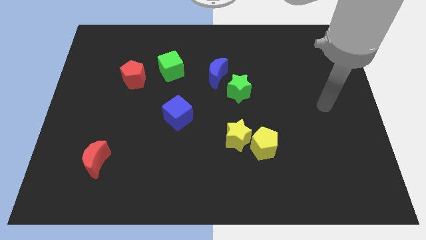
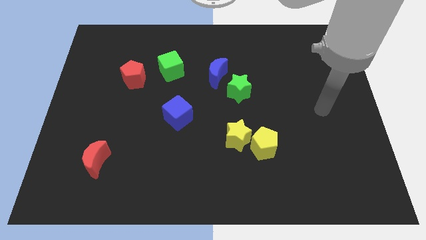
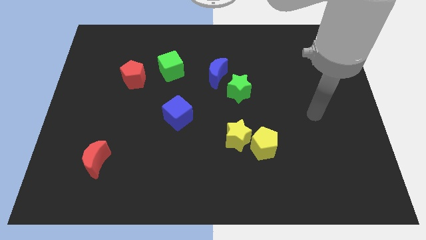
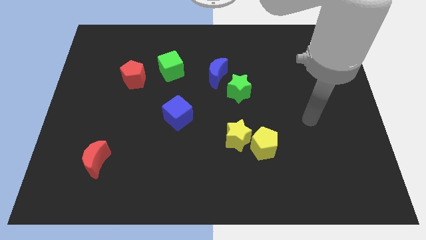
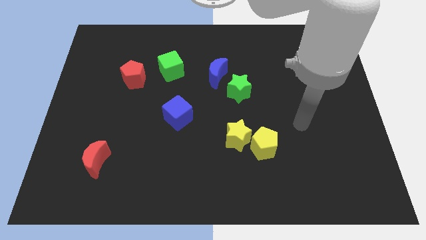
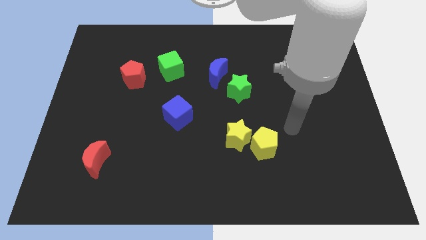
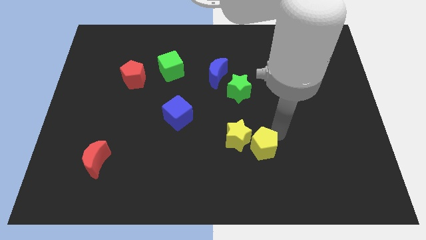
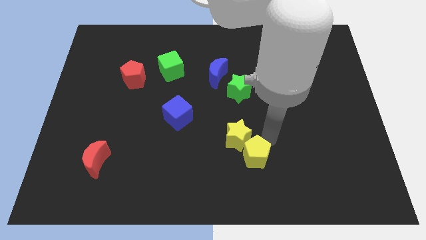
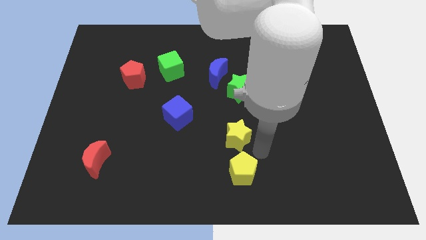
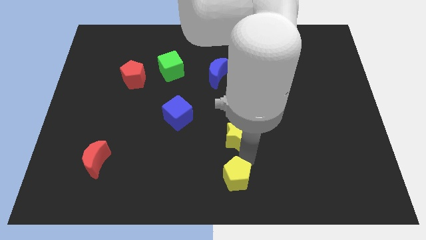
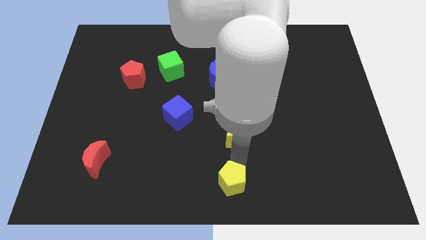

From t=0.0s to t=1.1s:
move the yellow star away from the yellow pentagon

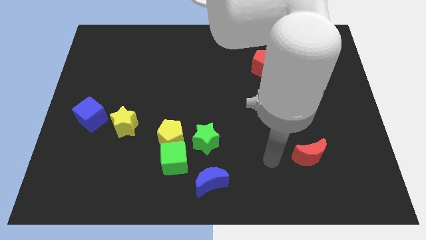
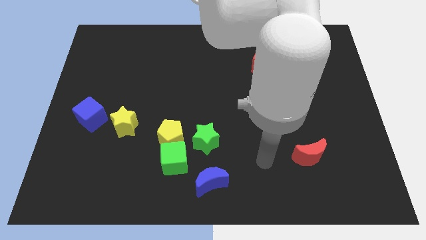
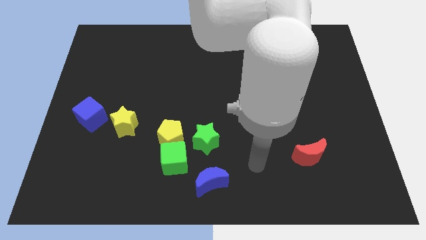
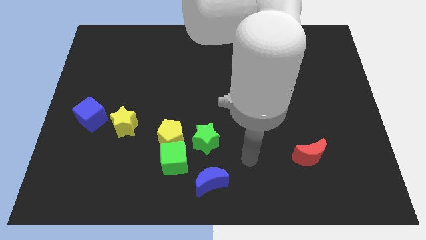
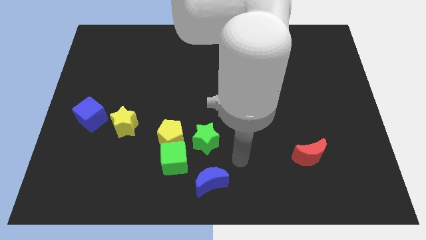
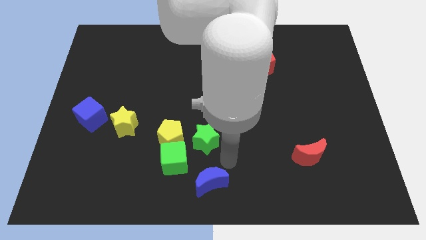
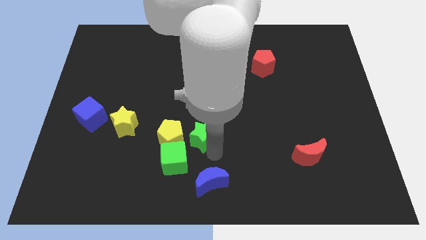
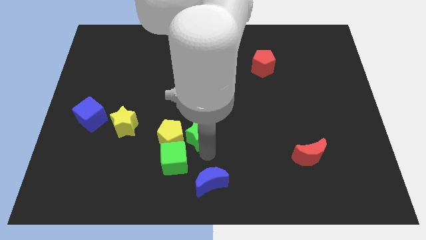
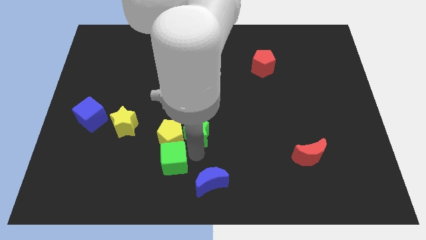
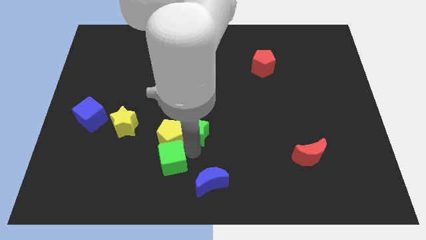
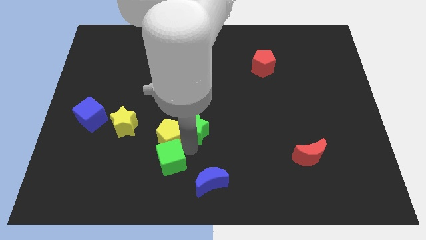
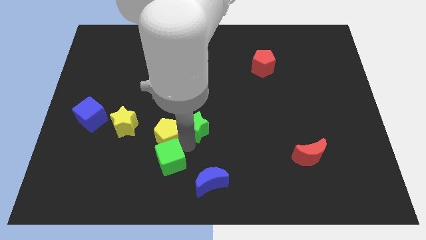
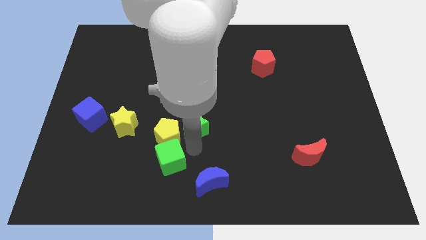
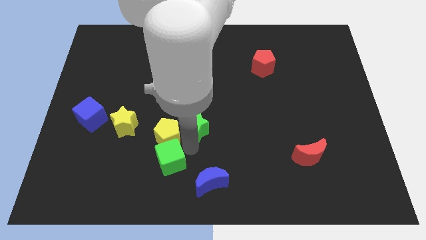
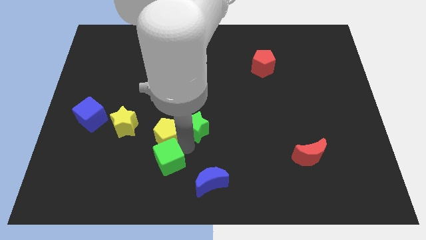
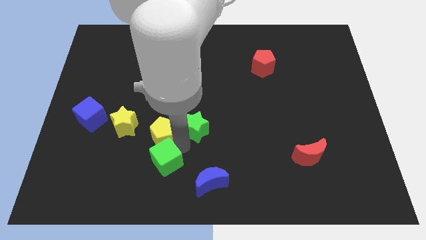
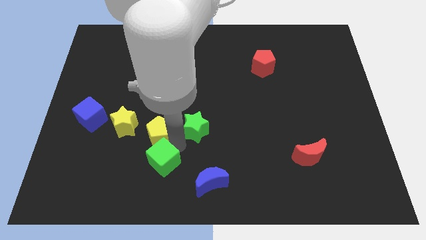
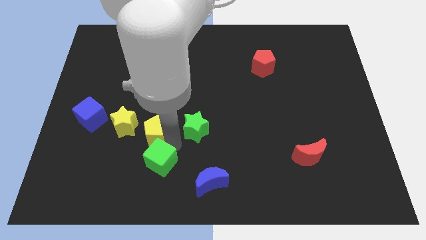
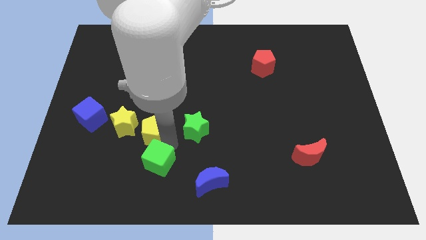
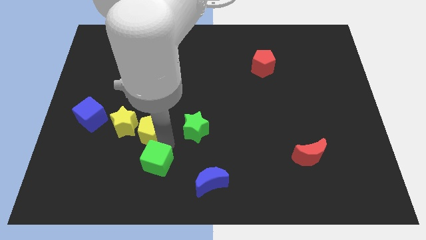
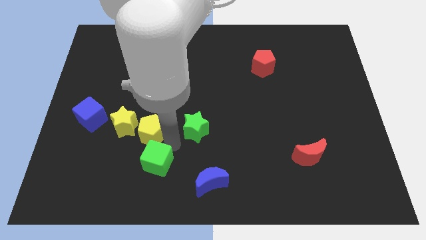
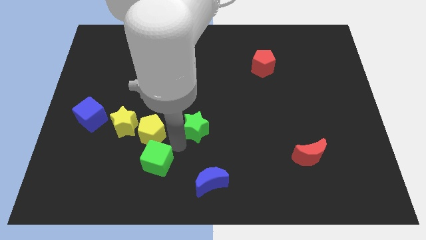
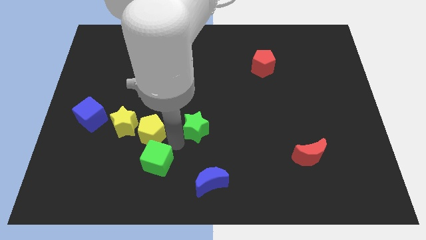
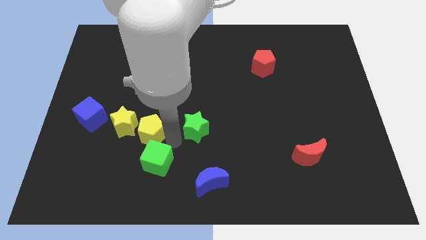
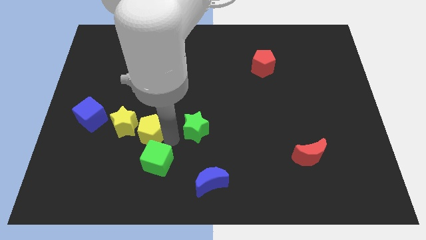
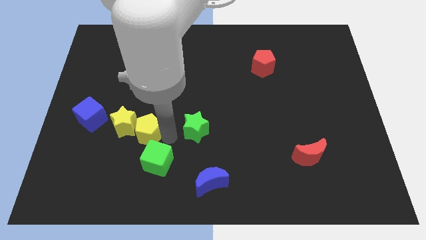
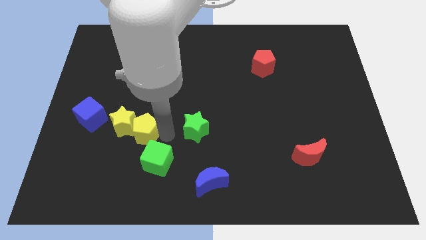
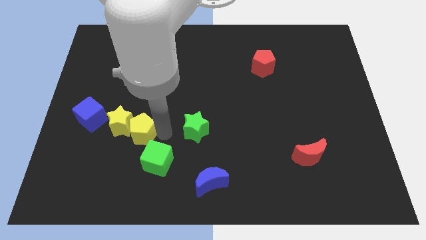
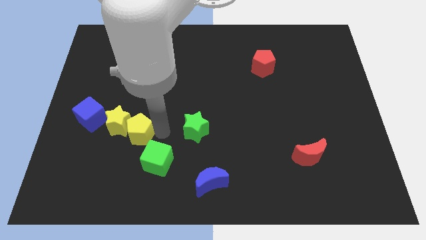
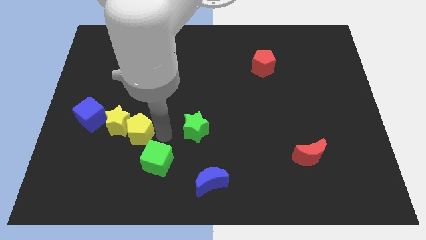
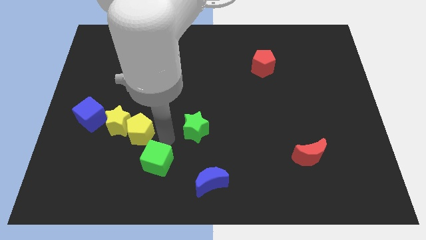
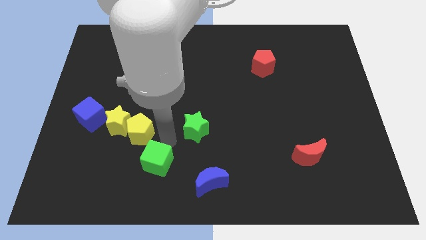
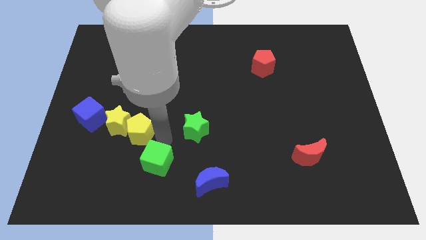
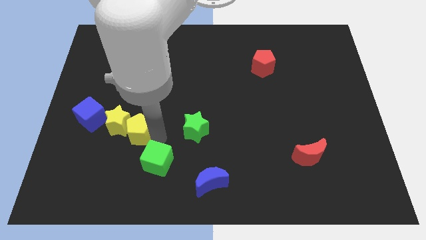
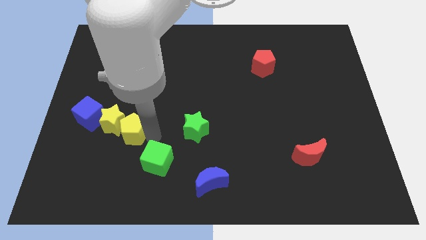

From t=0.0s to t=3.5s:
separate the yellow pentagon from the green cube and green star

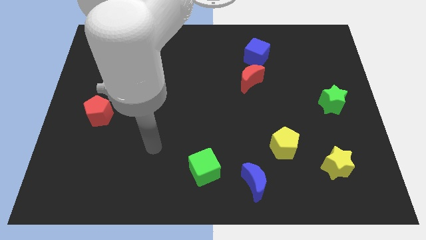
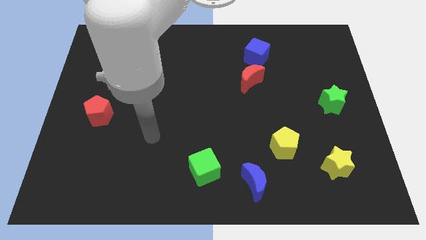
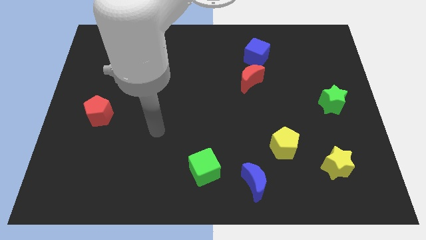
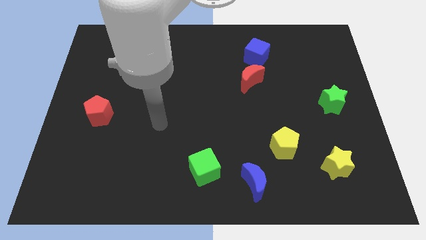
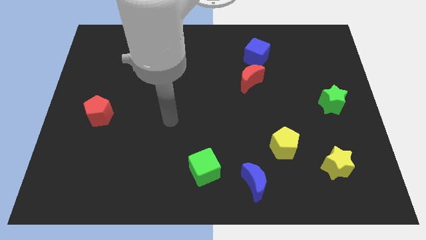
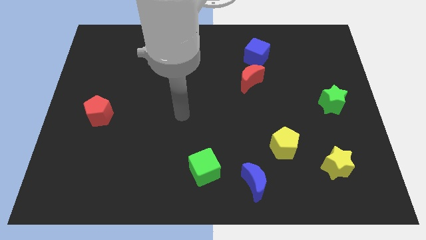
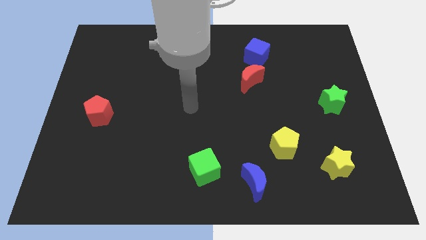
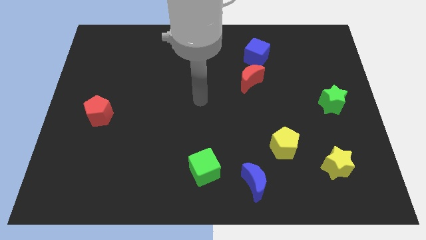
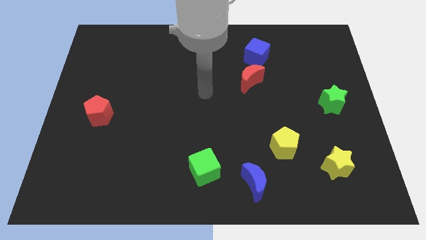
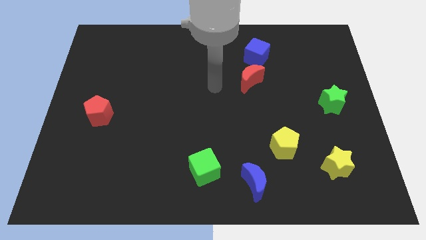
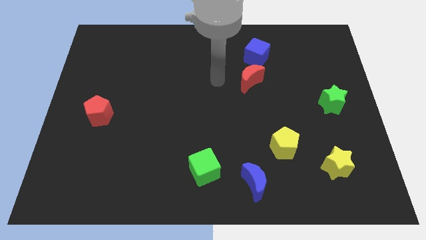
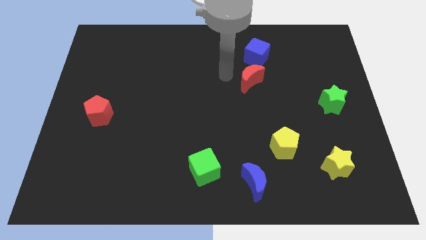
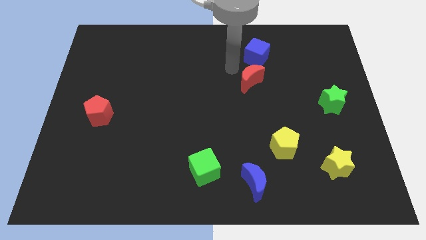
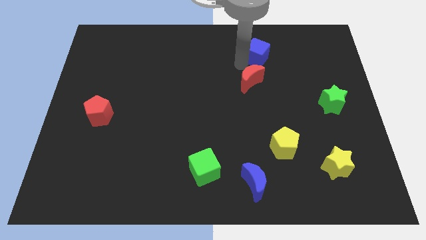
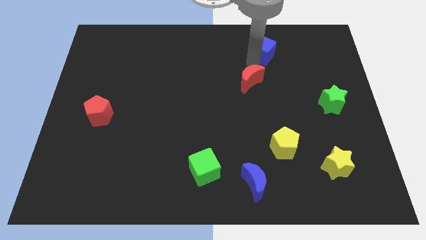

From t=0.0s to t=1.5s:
move the red moon away from the blue cube

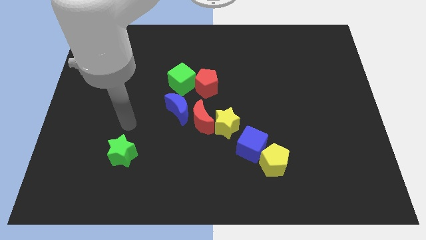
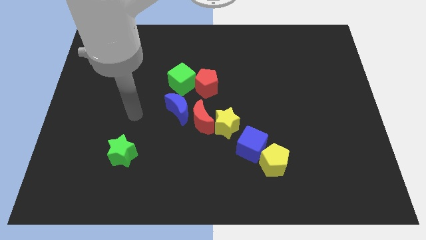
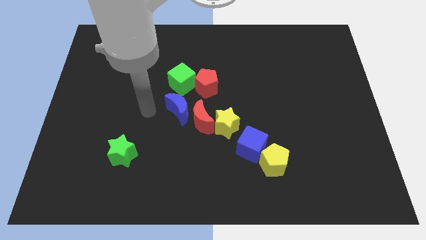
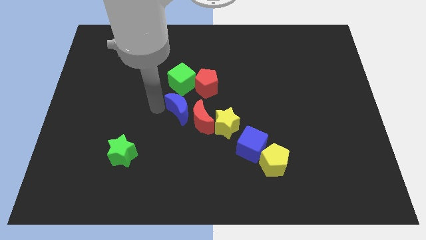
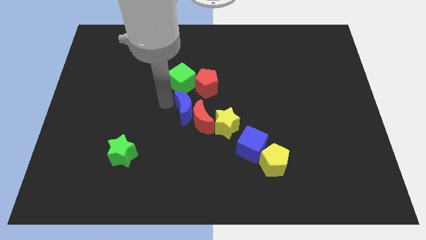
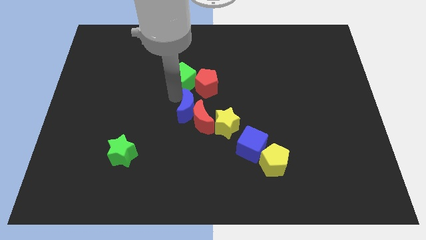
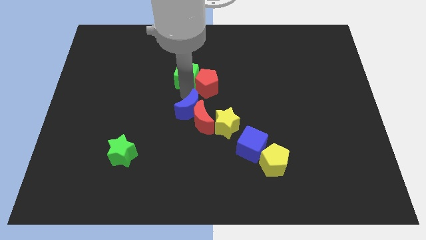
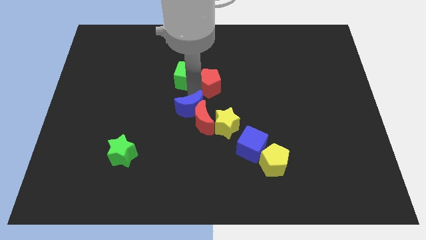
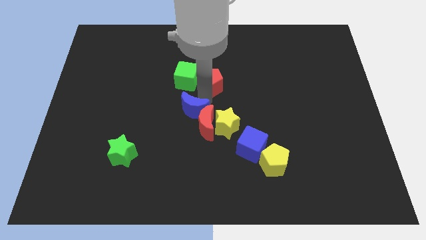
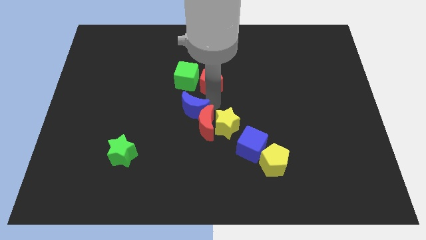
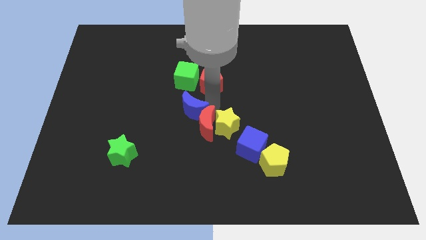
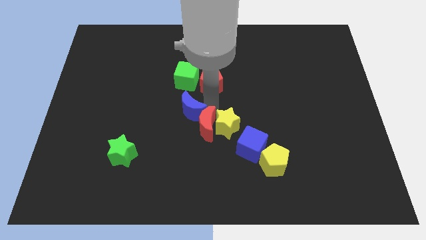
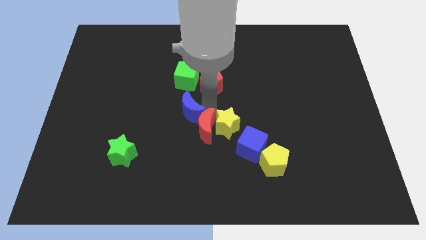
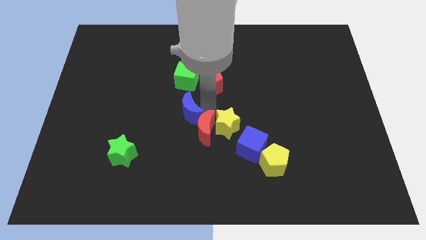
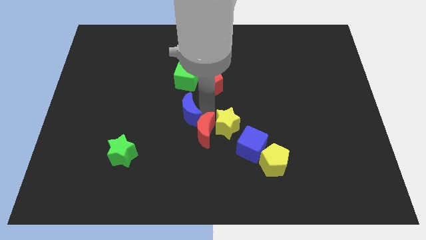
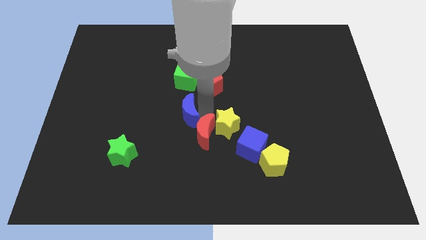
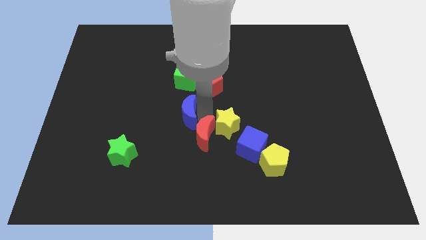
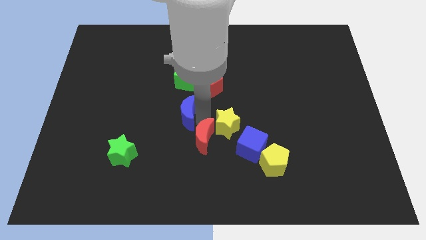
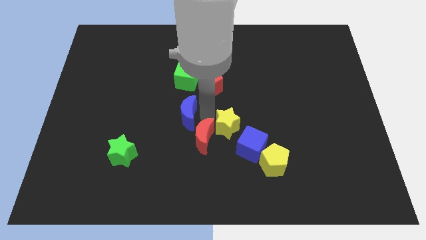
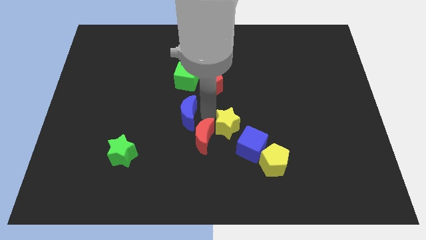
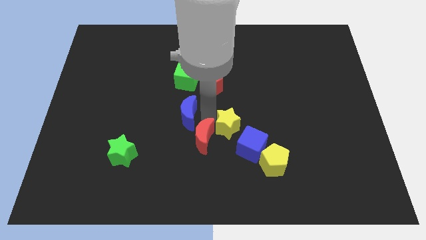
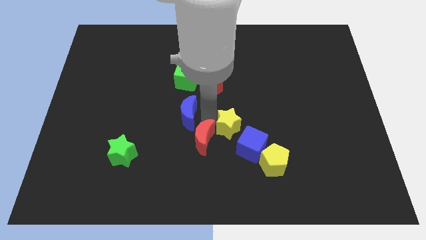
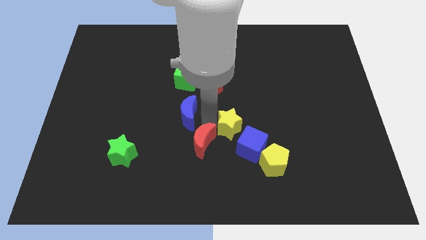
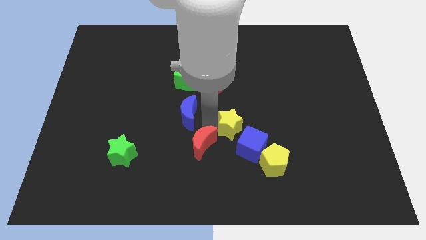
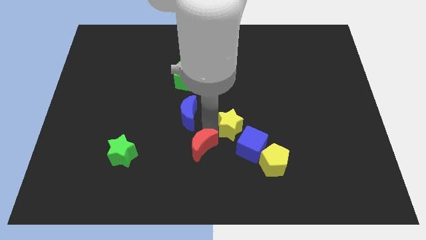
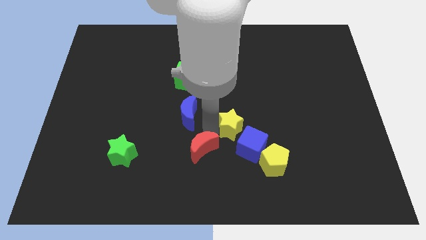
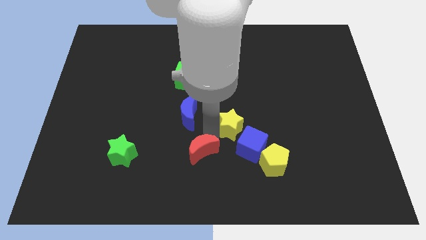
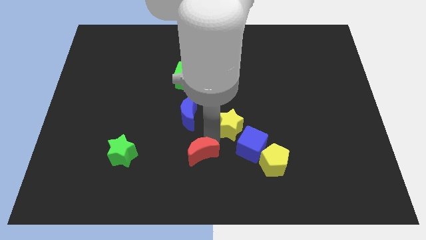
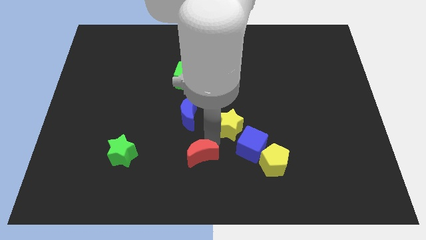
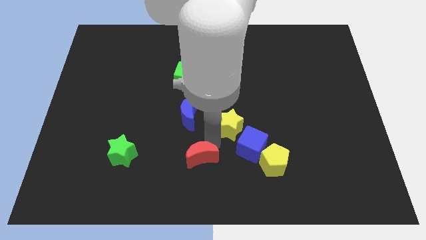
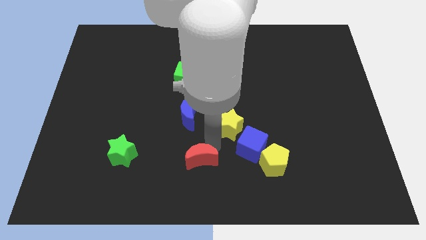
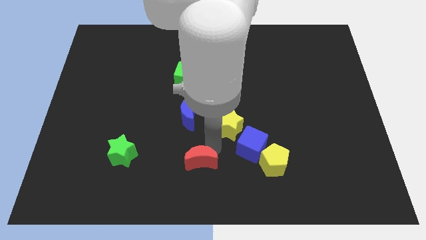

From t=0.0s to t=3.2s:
pull the red moon apart from the yellow star and blue moon
